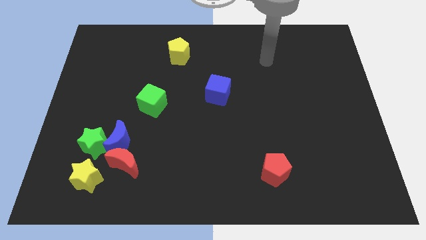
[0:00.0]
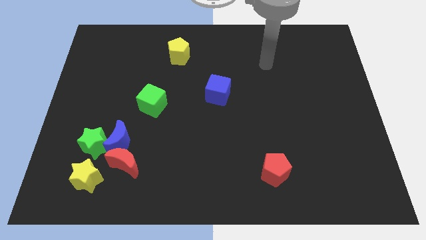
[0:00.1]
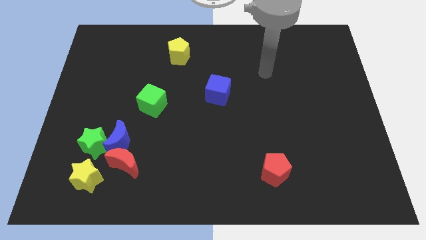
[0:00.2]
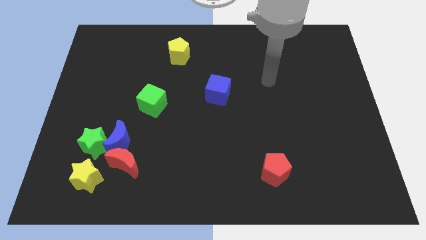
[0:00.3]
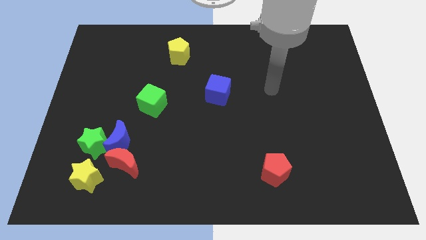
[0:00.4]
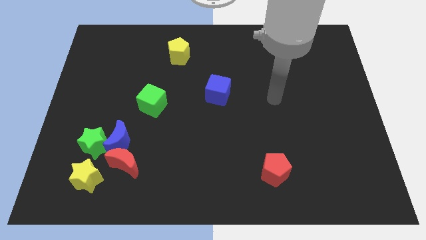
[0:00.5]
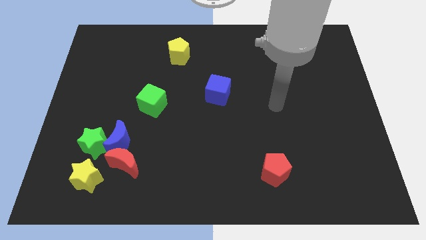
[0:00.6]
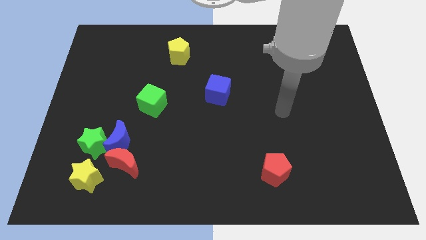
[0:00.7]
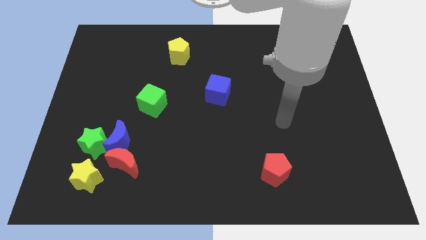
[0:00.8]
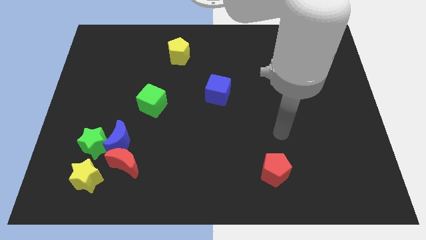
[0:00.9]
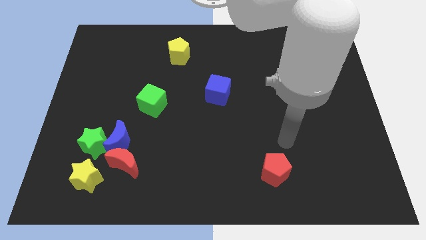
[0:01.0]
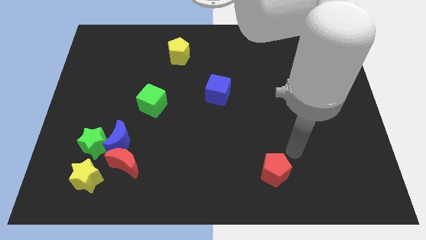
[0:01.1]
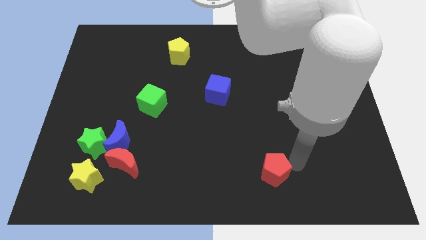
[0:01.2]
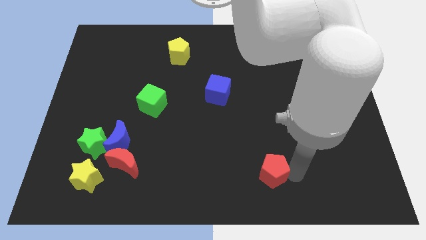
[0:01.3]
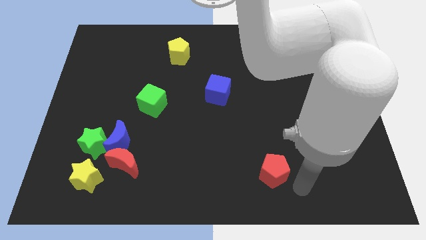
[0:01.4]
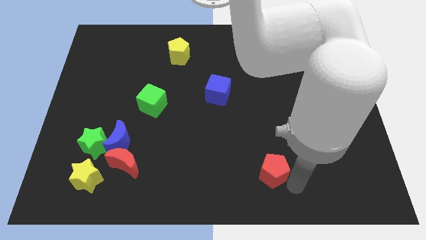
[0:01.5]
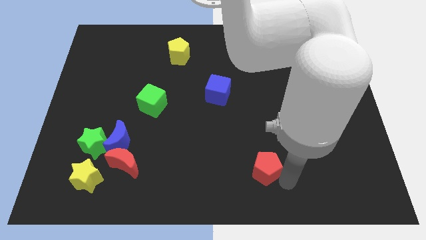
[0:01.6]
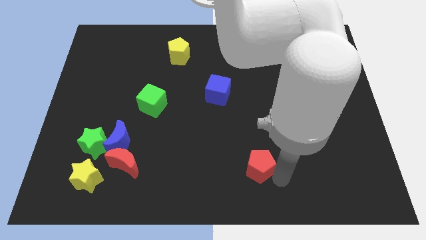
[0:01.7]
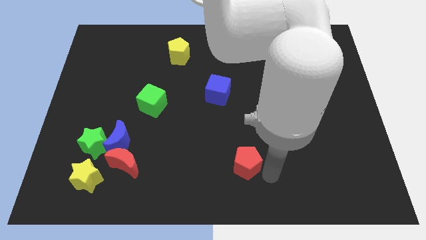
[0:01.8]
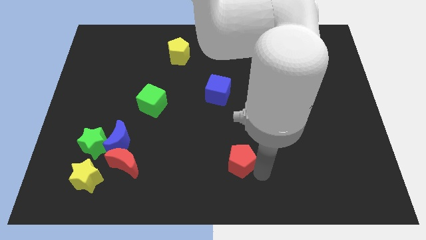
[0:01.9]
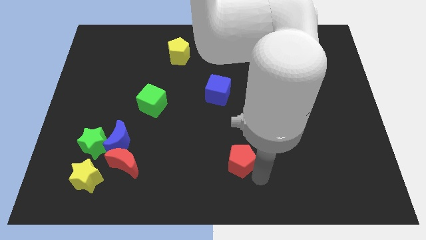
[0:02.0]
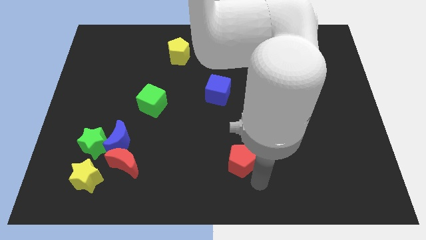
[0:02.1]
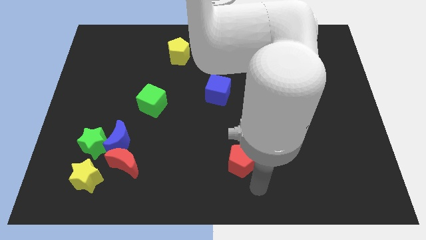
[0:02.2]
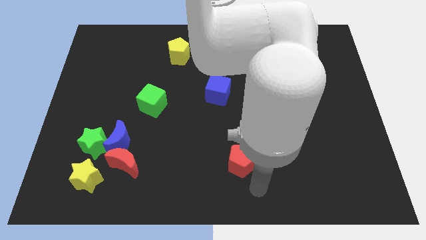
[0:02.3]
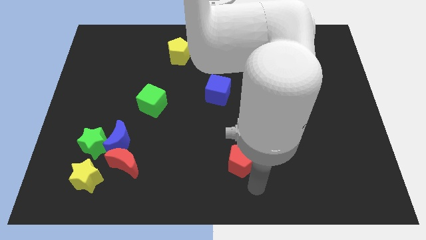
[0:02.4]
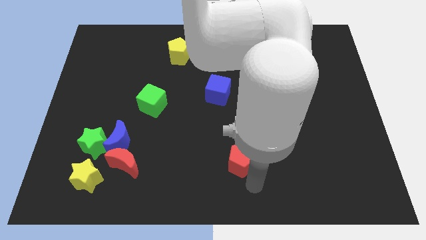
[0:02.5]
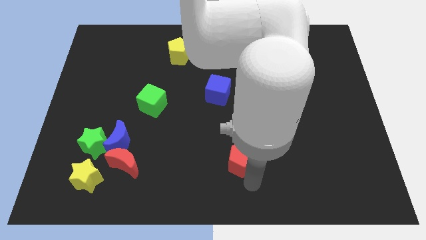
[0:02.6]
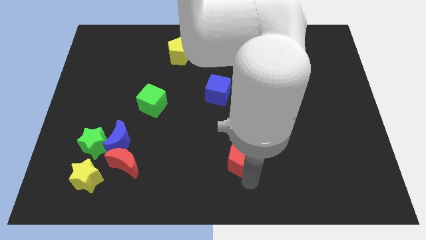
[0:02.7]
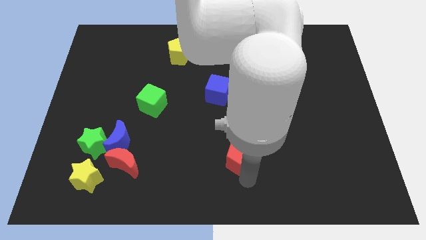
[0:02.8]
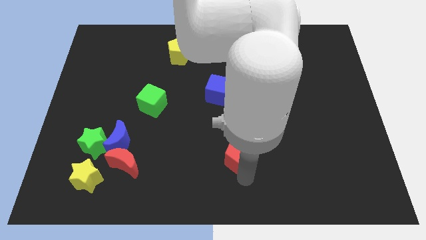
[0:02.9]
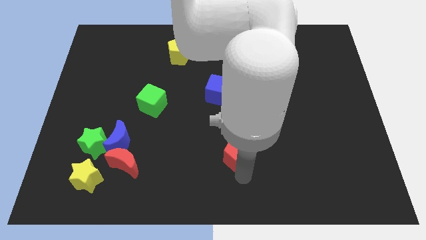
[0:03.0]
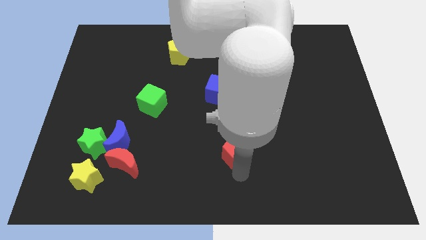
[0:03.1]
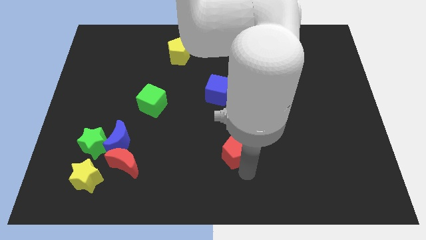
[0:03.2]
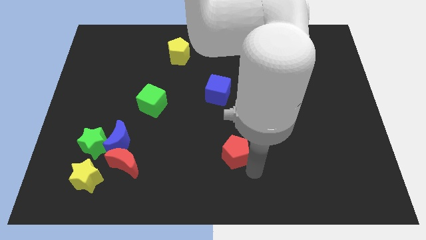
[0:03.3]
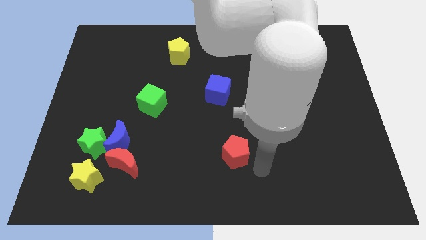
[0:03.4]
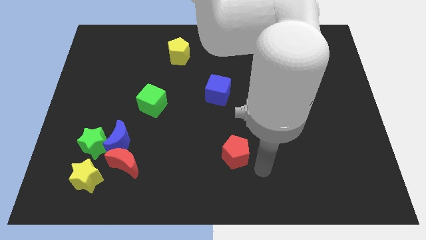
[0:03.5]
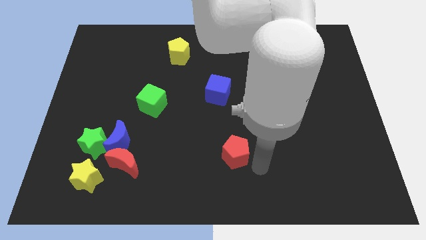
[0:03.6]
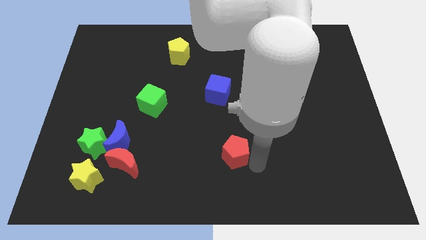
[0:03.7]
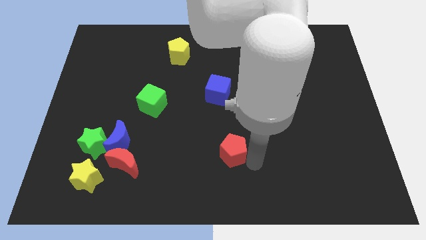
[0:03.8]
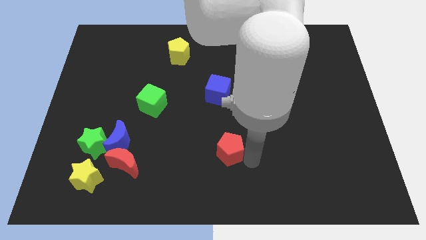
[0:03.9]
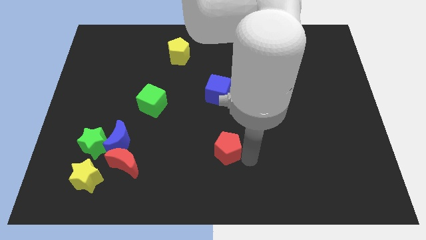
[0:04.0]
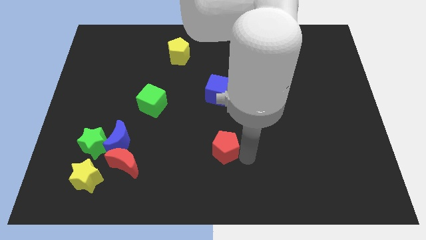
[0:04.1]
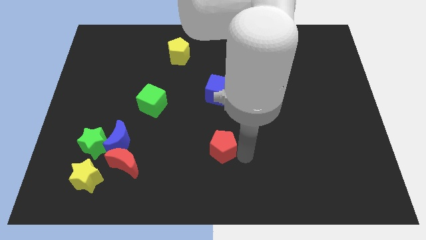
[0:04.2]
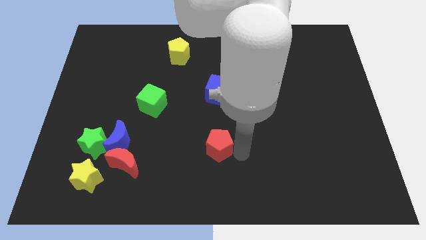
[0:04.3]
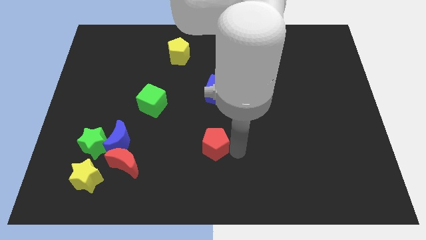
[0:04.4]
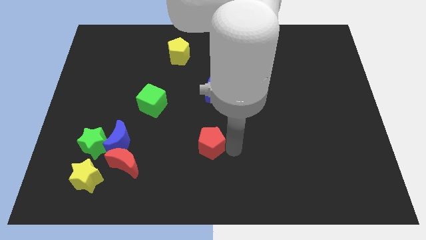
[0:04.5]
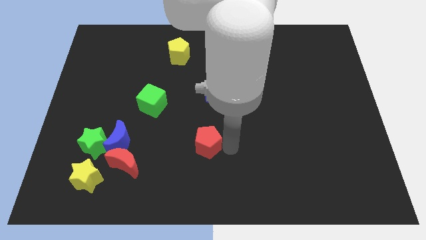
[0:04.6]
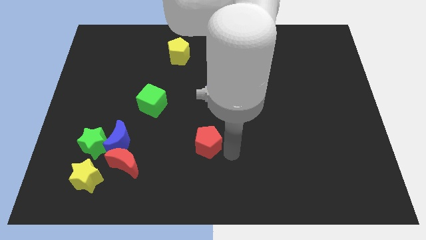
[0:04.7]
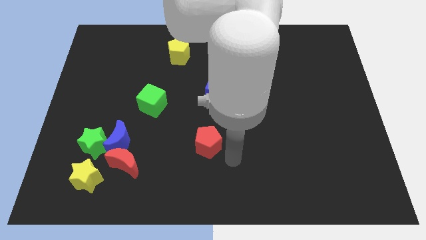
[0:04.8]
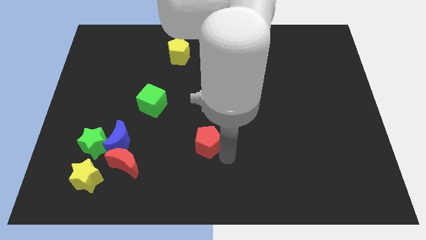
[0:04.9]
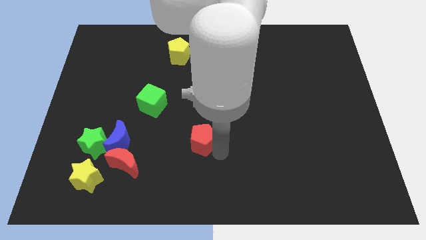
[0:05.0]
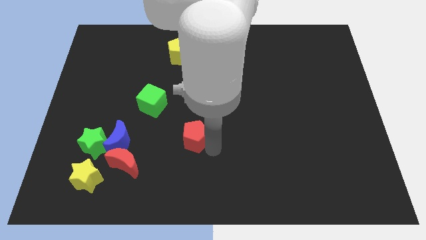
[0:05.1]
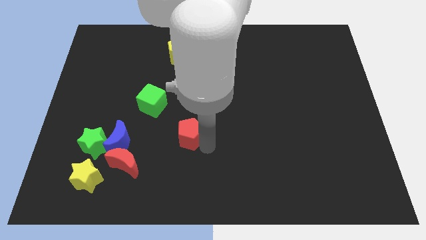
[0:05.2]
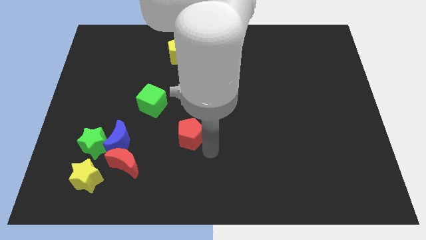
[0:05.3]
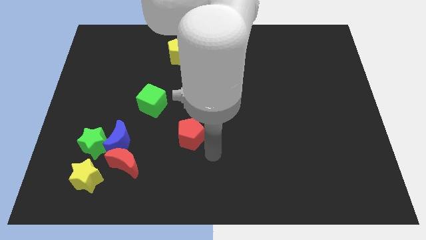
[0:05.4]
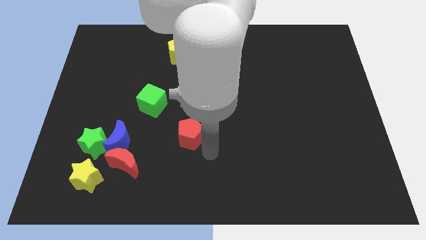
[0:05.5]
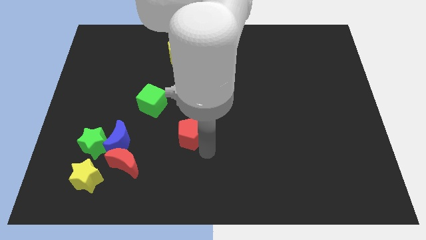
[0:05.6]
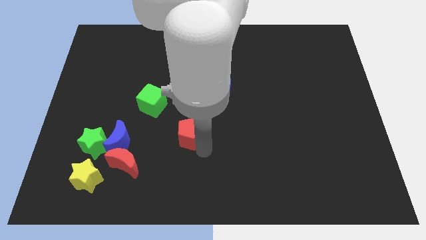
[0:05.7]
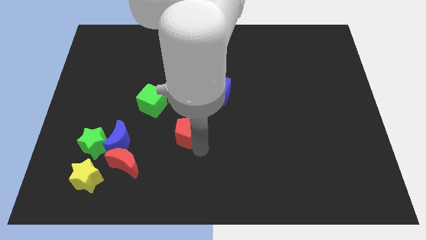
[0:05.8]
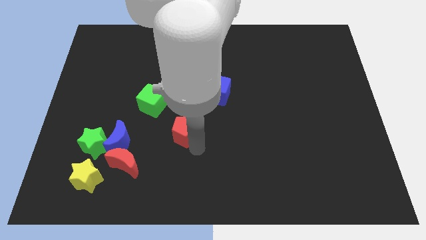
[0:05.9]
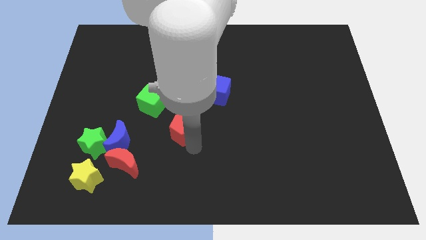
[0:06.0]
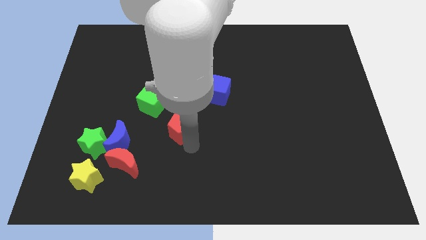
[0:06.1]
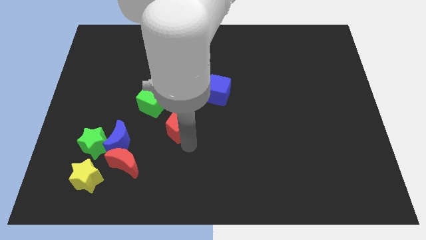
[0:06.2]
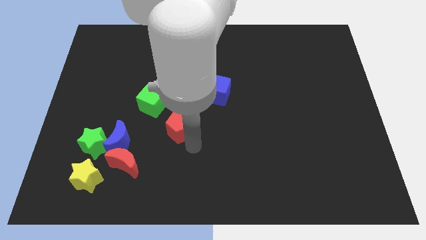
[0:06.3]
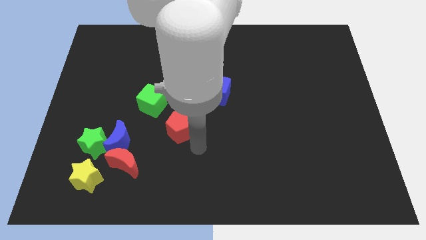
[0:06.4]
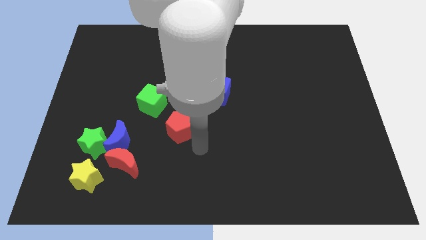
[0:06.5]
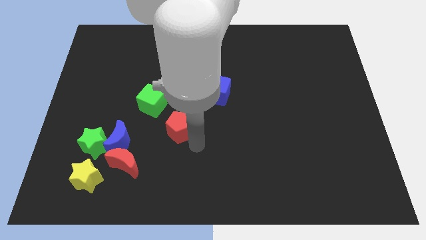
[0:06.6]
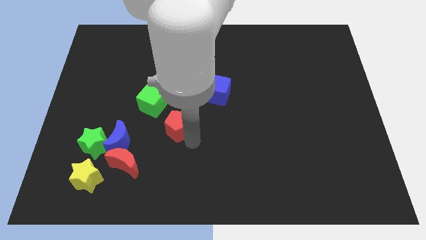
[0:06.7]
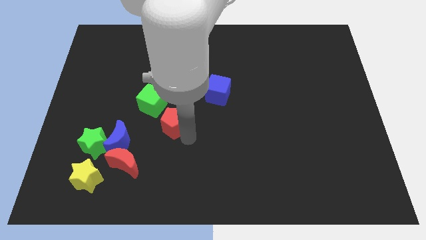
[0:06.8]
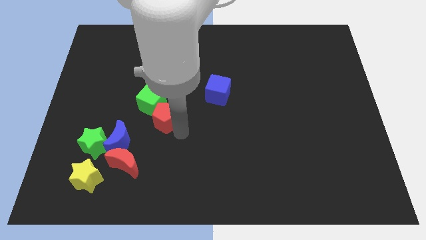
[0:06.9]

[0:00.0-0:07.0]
put the red pentagon close to the green cube

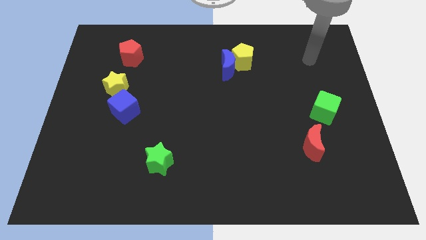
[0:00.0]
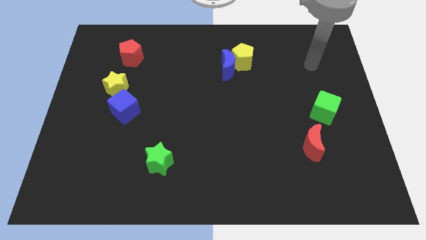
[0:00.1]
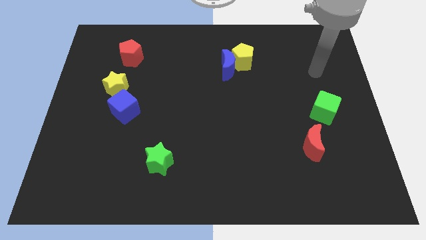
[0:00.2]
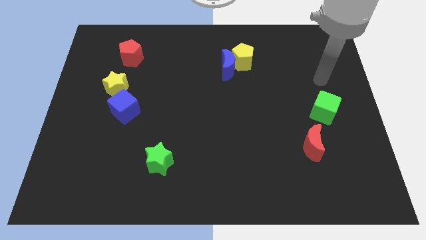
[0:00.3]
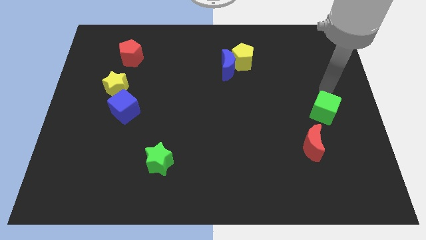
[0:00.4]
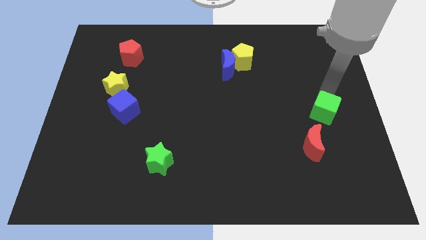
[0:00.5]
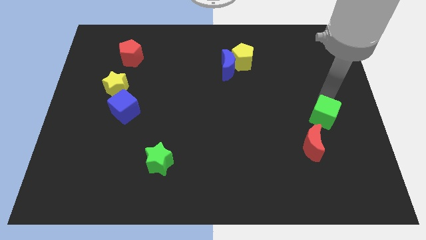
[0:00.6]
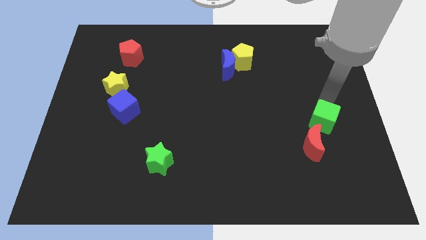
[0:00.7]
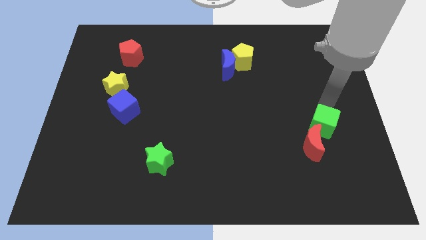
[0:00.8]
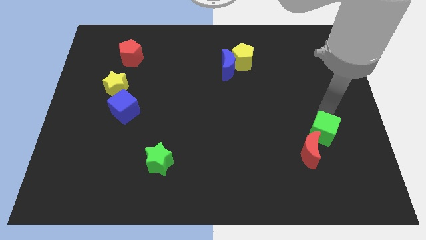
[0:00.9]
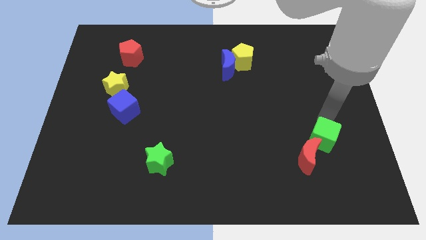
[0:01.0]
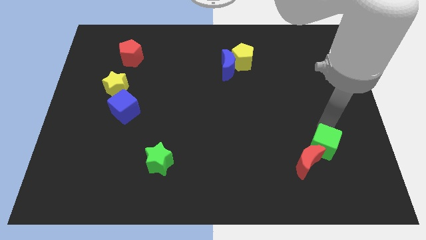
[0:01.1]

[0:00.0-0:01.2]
put the green cube to the red moon

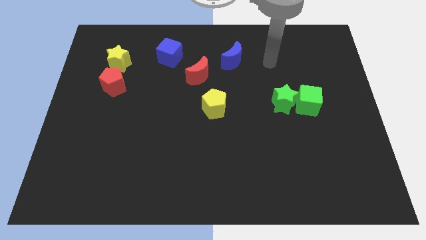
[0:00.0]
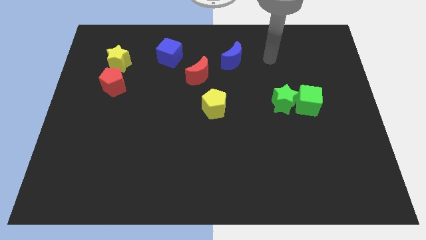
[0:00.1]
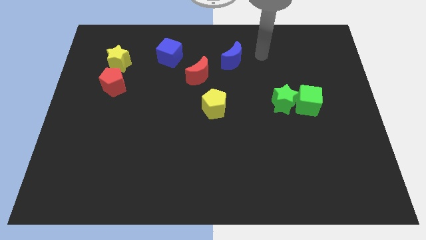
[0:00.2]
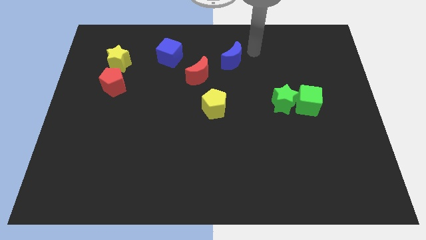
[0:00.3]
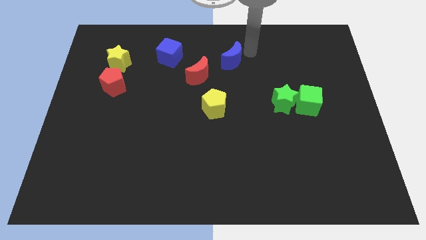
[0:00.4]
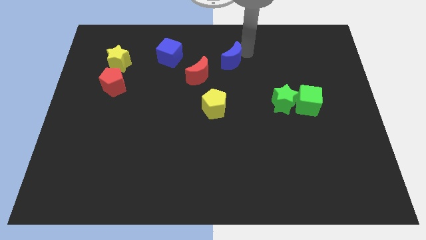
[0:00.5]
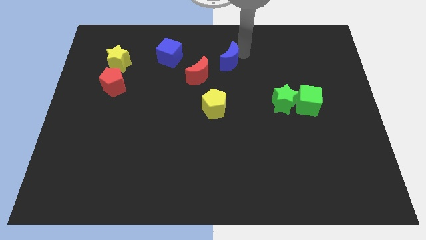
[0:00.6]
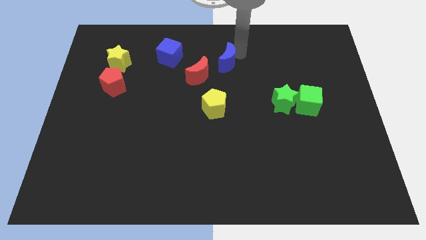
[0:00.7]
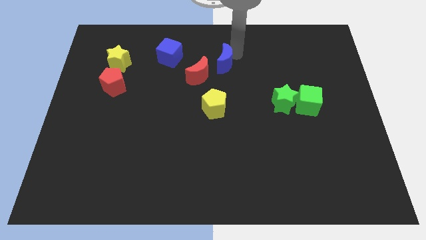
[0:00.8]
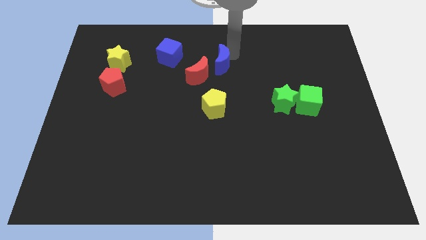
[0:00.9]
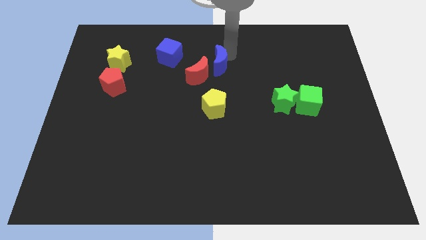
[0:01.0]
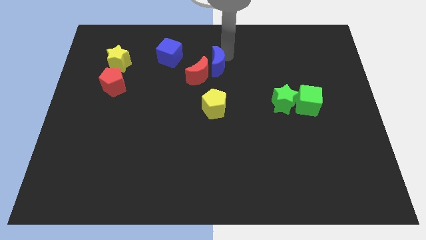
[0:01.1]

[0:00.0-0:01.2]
slide the blue moon next to the red moon
